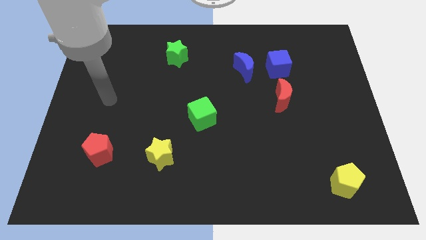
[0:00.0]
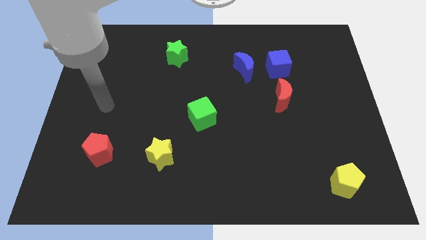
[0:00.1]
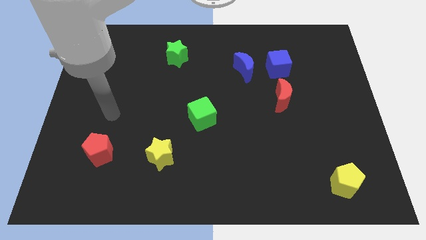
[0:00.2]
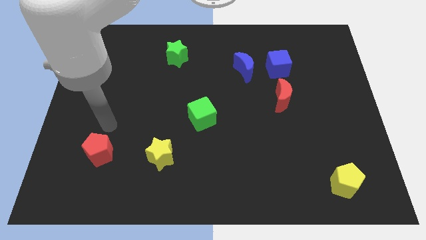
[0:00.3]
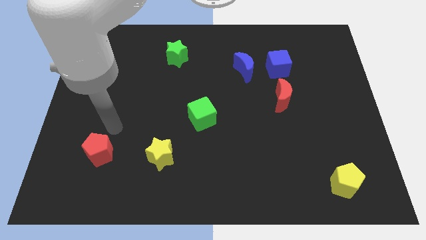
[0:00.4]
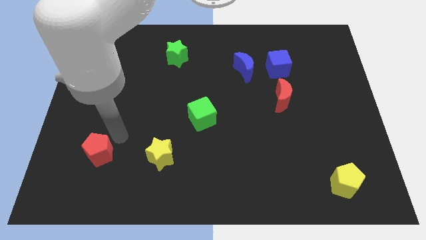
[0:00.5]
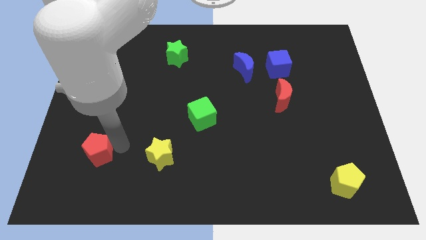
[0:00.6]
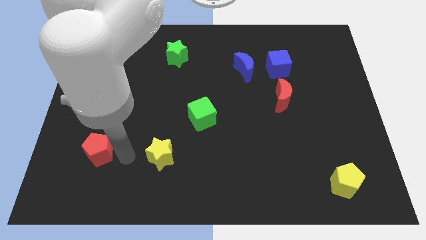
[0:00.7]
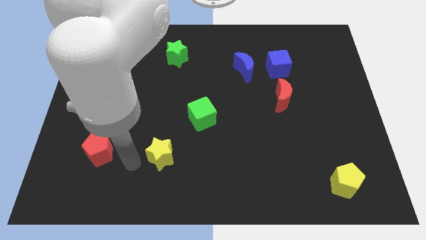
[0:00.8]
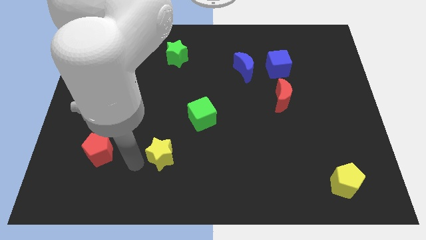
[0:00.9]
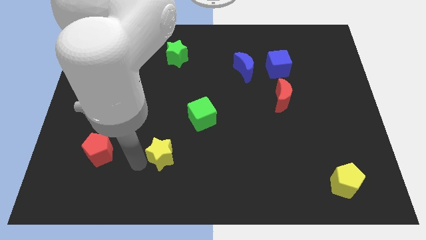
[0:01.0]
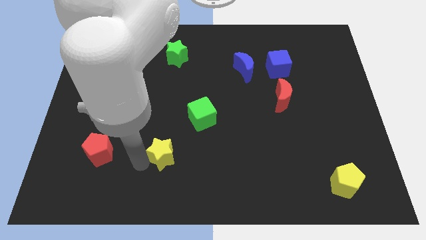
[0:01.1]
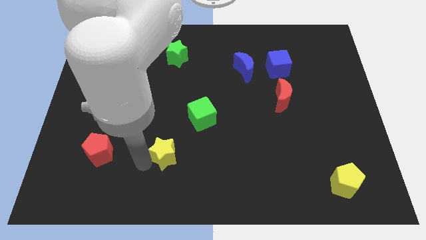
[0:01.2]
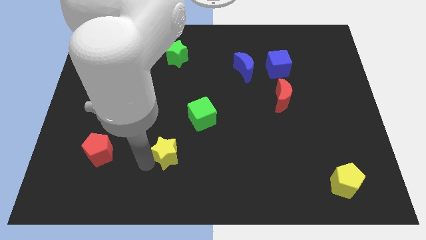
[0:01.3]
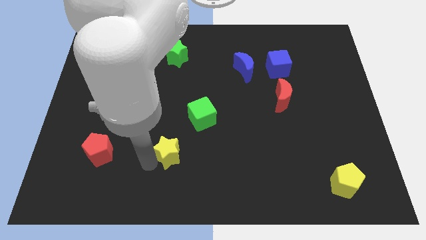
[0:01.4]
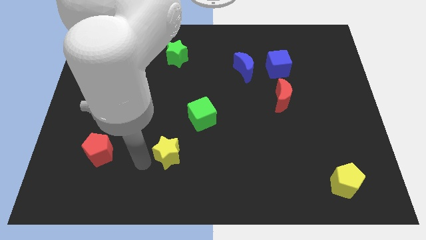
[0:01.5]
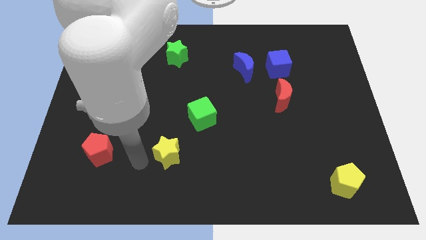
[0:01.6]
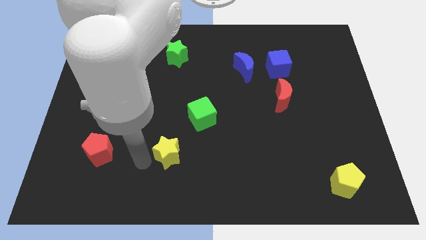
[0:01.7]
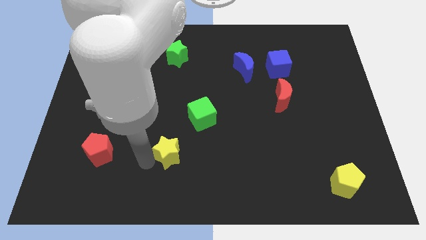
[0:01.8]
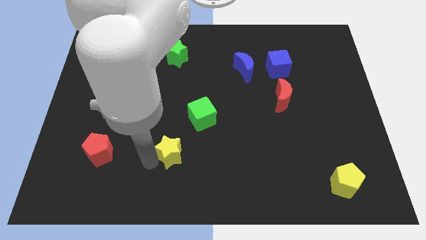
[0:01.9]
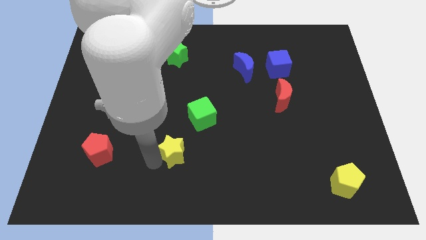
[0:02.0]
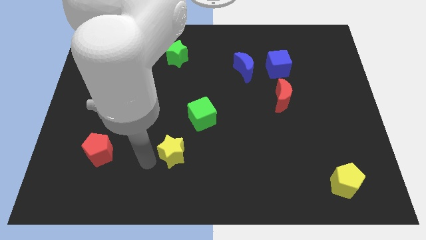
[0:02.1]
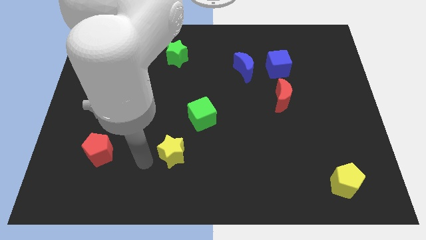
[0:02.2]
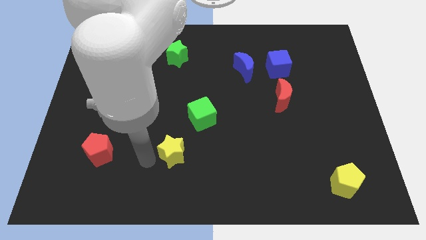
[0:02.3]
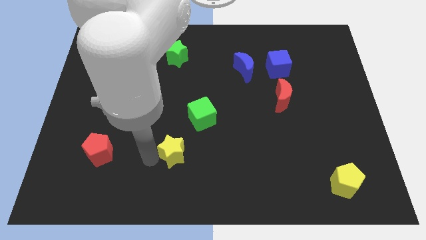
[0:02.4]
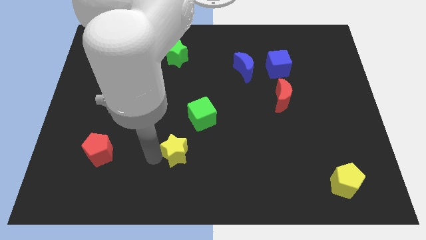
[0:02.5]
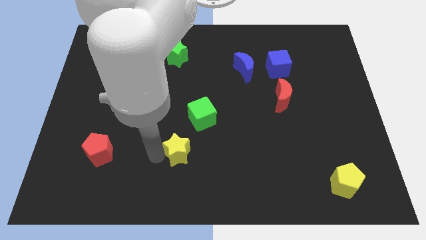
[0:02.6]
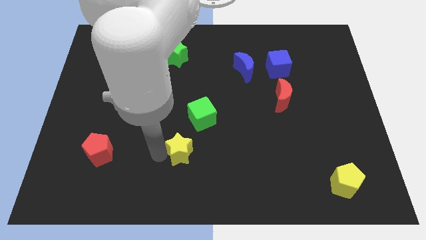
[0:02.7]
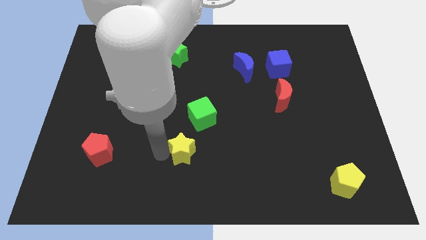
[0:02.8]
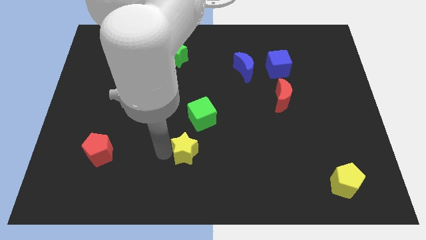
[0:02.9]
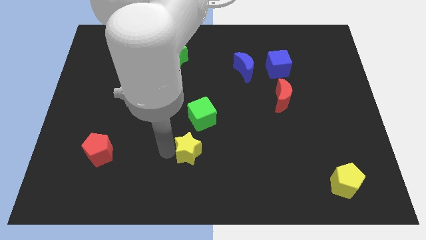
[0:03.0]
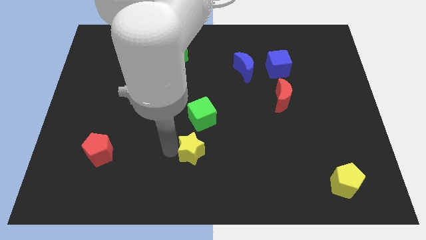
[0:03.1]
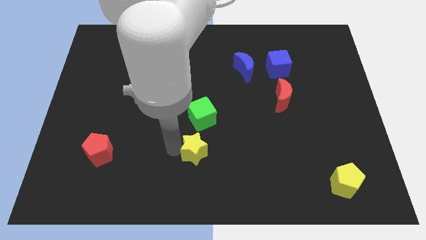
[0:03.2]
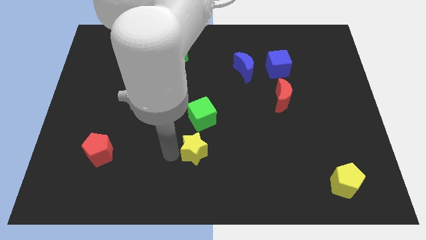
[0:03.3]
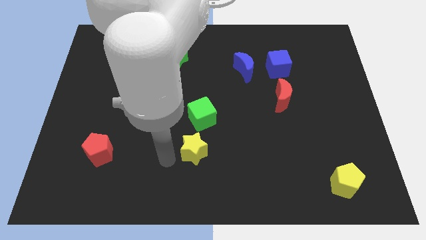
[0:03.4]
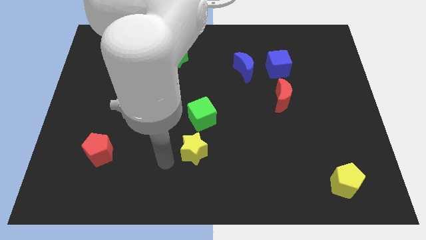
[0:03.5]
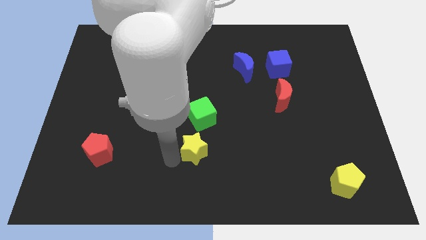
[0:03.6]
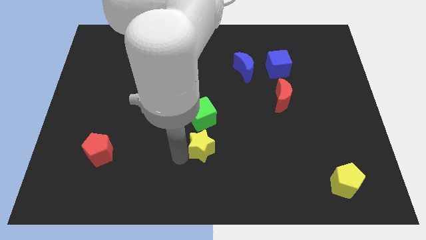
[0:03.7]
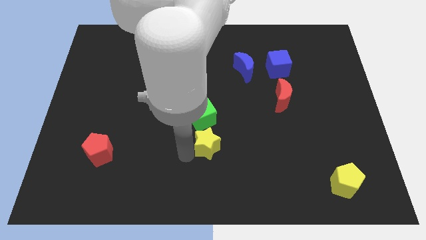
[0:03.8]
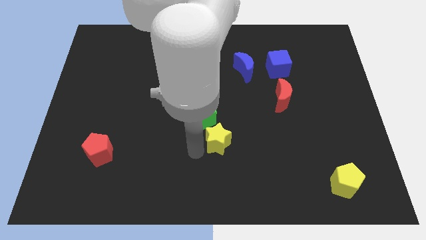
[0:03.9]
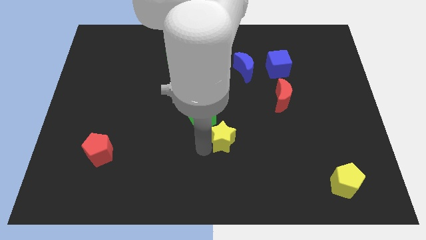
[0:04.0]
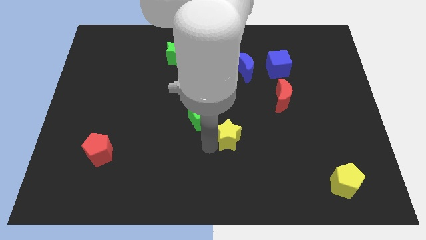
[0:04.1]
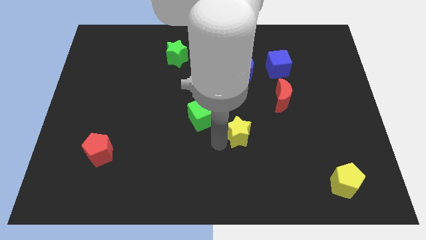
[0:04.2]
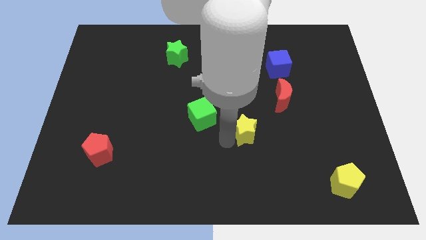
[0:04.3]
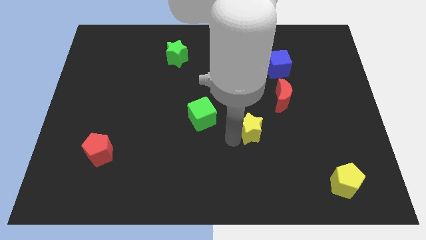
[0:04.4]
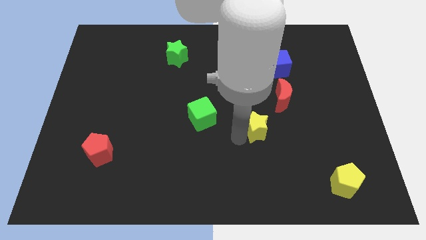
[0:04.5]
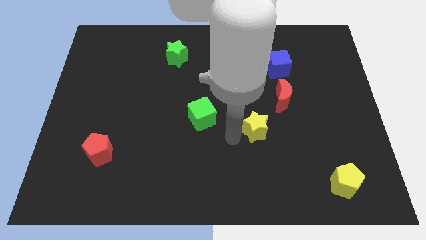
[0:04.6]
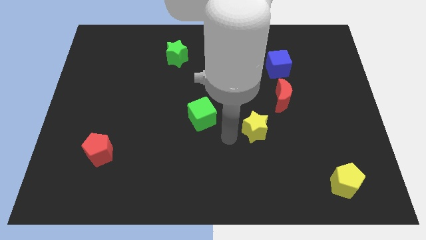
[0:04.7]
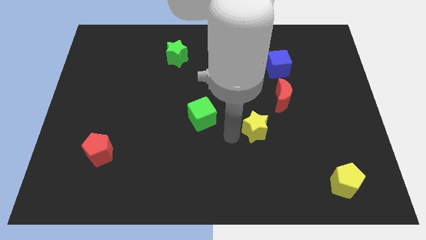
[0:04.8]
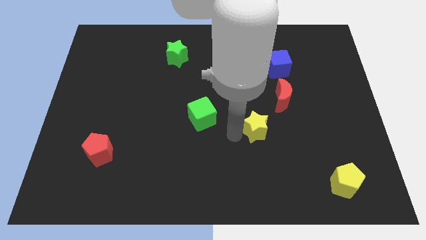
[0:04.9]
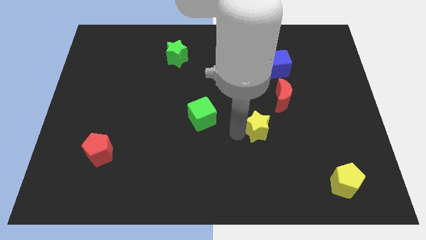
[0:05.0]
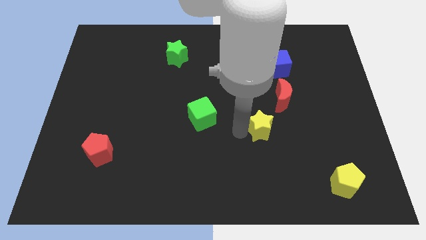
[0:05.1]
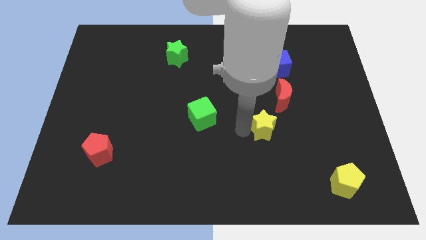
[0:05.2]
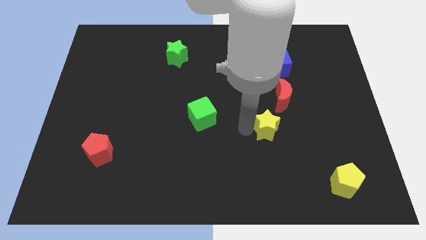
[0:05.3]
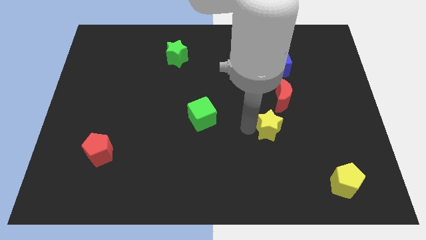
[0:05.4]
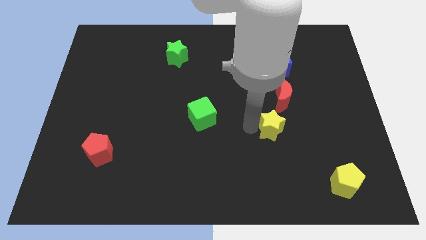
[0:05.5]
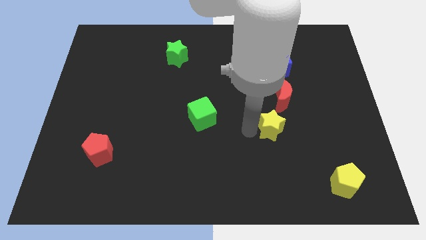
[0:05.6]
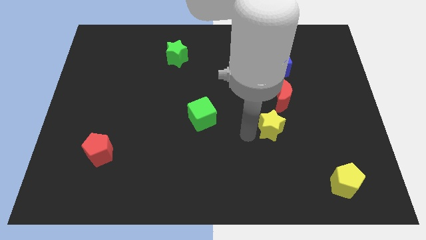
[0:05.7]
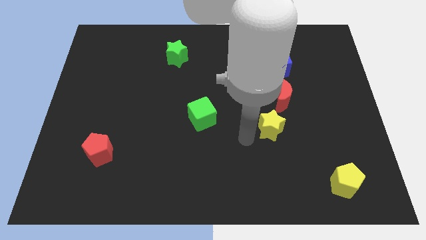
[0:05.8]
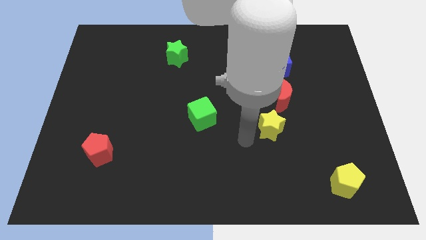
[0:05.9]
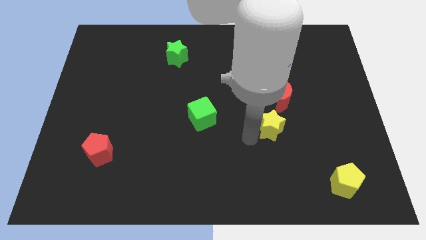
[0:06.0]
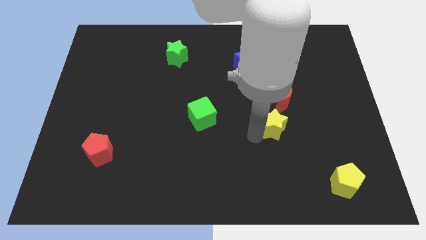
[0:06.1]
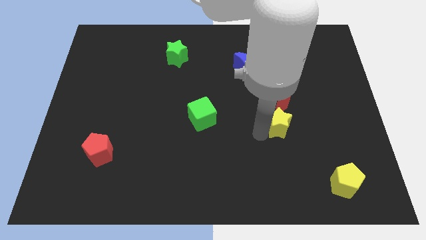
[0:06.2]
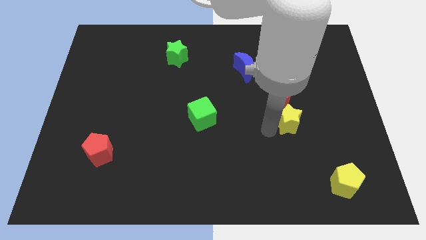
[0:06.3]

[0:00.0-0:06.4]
slide the yellow star diagonally down and to the right of the red moon

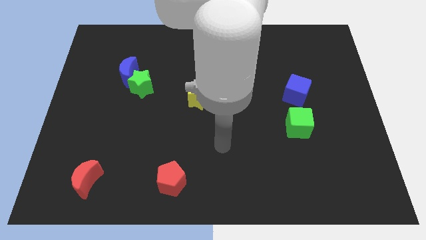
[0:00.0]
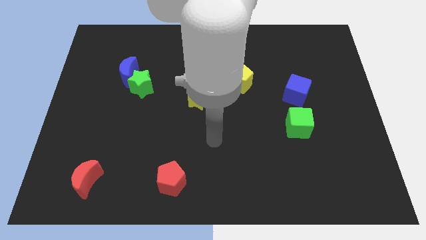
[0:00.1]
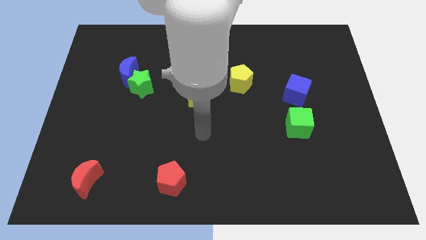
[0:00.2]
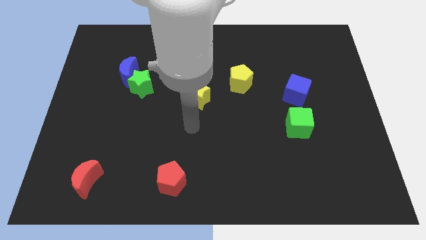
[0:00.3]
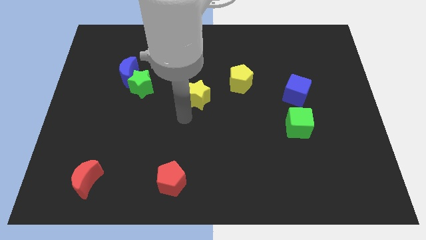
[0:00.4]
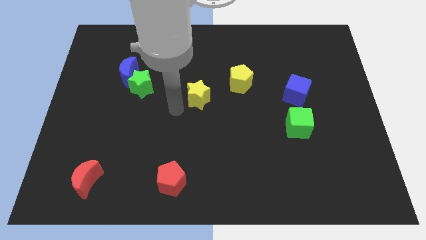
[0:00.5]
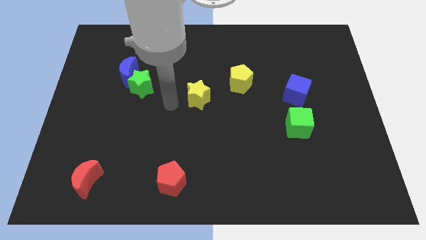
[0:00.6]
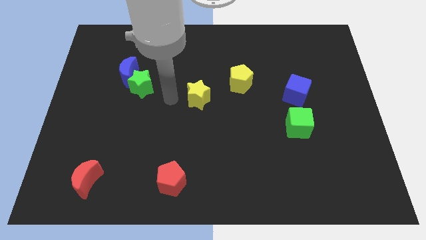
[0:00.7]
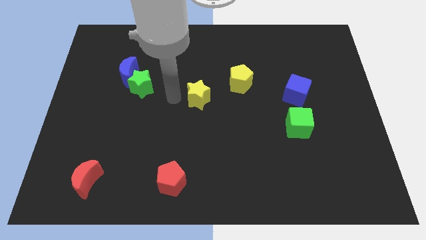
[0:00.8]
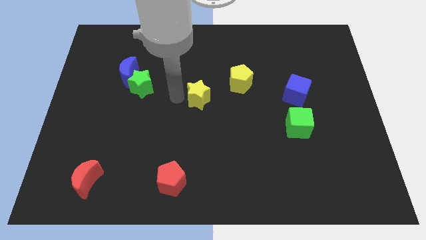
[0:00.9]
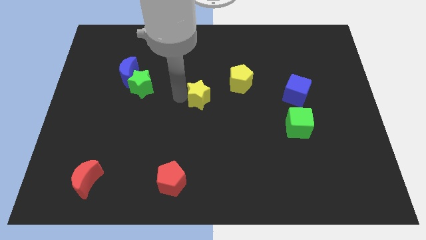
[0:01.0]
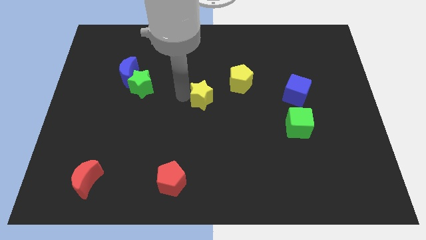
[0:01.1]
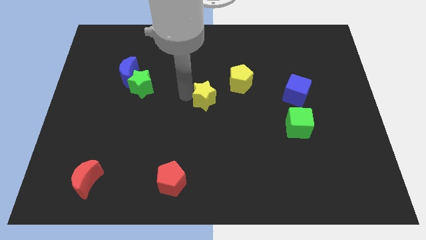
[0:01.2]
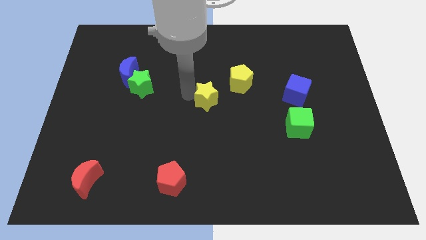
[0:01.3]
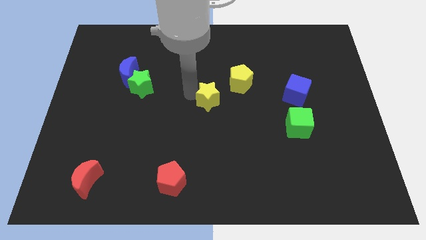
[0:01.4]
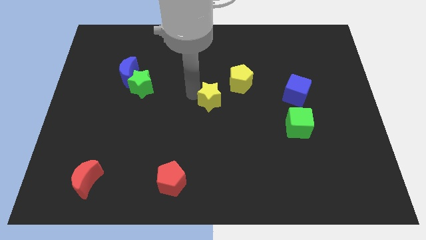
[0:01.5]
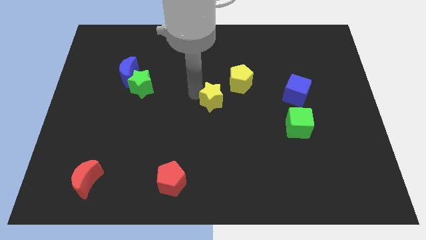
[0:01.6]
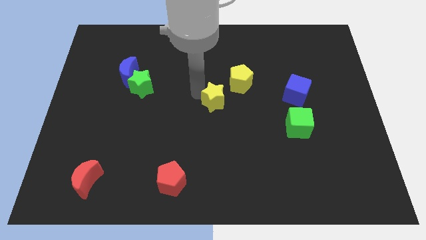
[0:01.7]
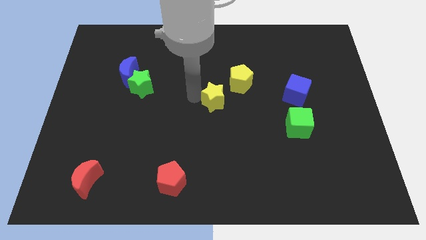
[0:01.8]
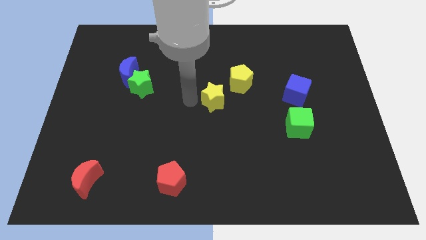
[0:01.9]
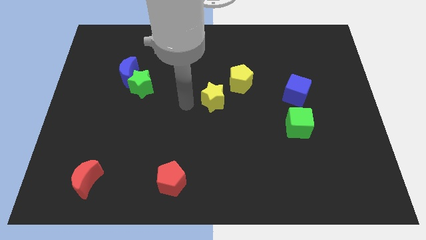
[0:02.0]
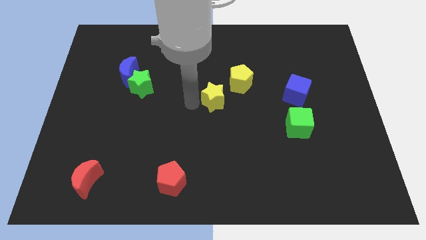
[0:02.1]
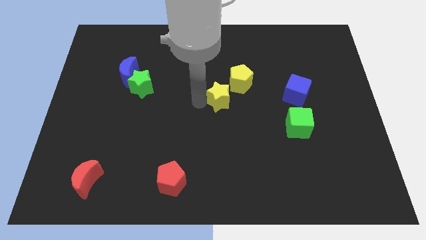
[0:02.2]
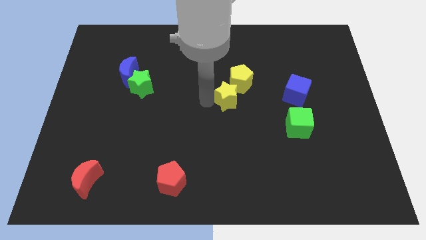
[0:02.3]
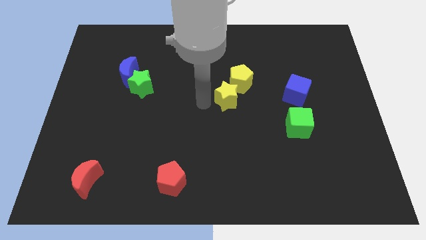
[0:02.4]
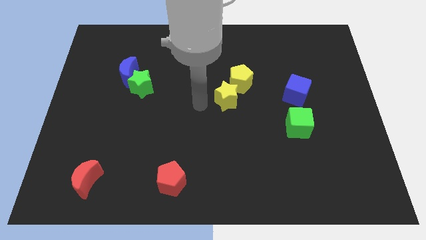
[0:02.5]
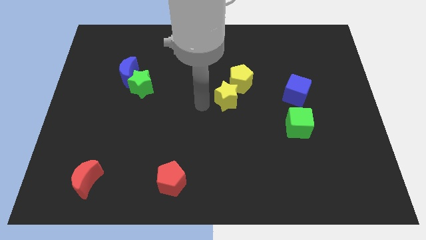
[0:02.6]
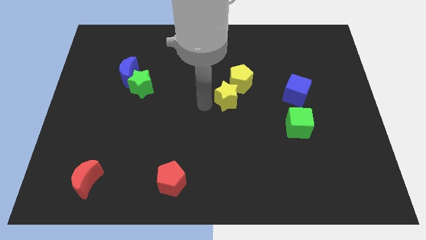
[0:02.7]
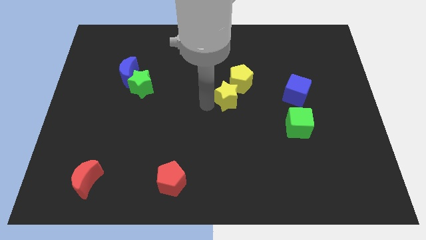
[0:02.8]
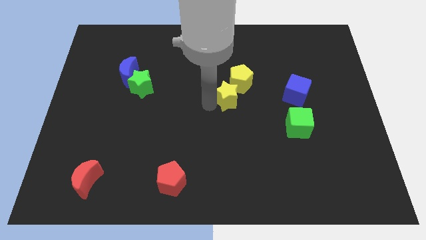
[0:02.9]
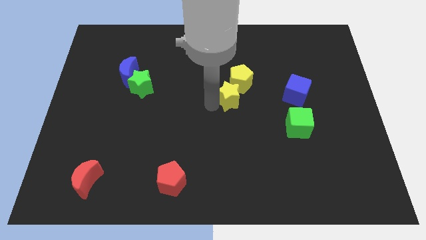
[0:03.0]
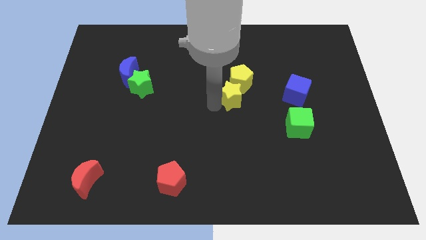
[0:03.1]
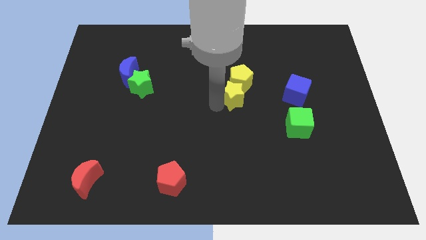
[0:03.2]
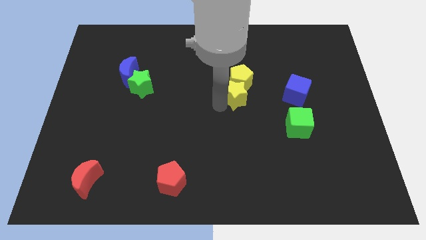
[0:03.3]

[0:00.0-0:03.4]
put the yellow star to the bottom right side of the yellow pentagon
